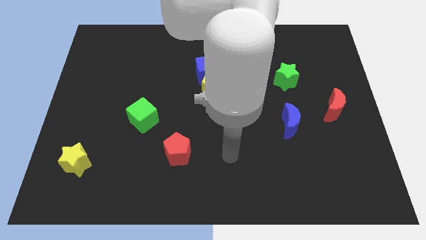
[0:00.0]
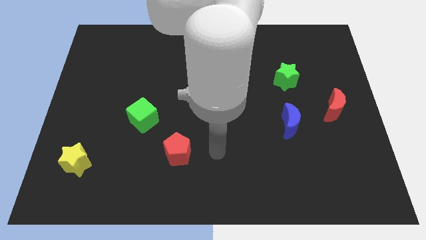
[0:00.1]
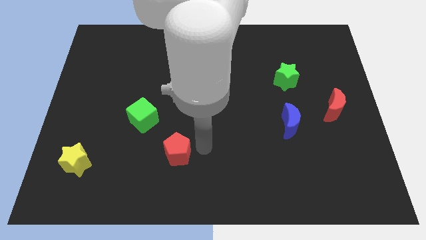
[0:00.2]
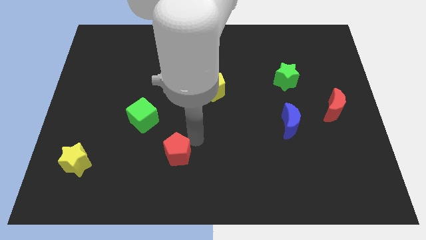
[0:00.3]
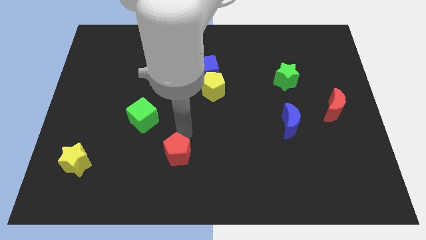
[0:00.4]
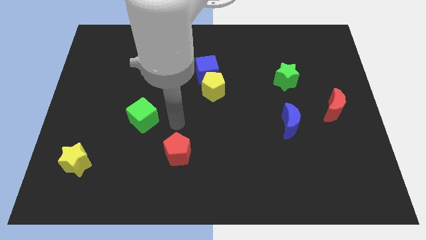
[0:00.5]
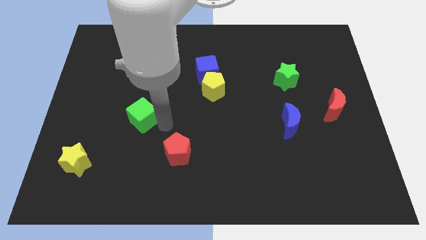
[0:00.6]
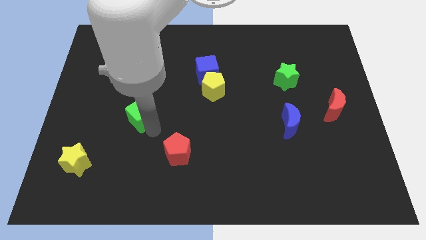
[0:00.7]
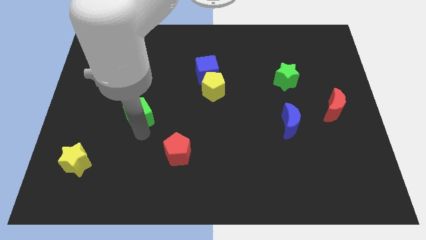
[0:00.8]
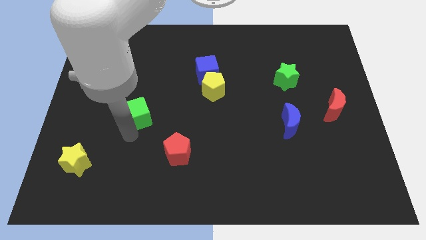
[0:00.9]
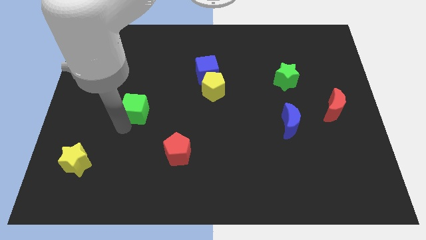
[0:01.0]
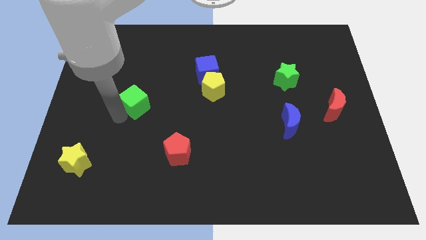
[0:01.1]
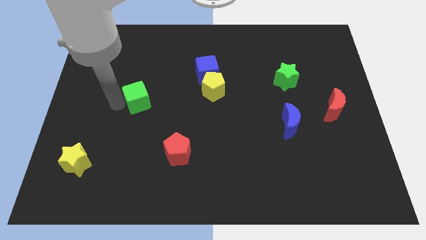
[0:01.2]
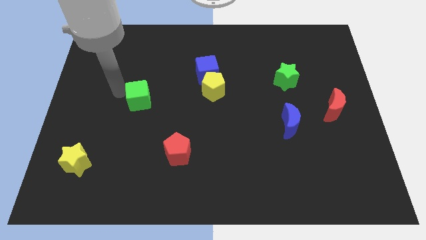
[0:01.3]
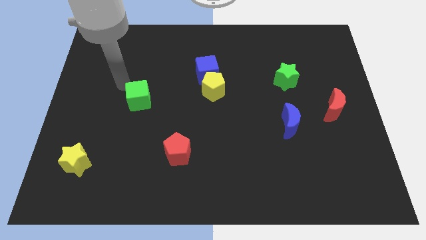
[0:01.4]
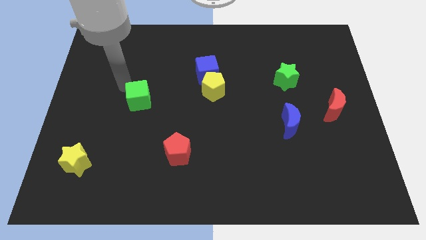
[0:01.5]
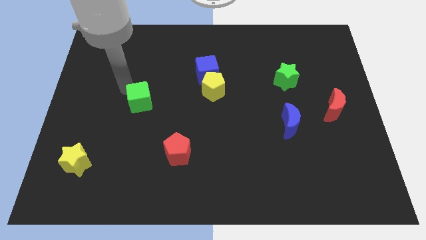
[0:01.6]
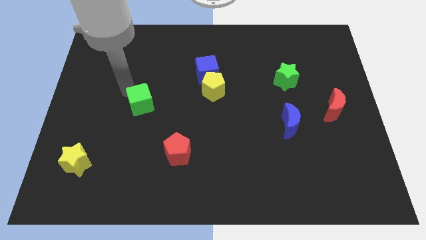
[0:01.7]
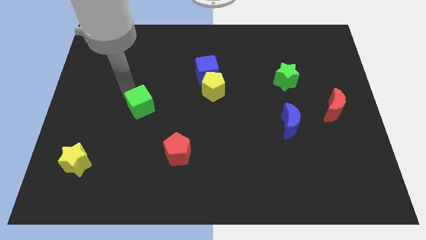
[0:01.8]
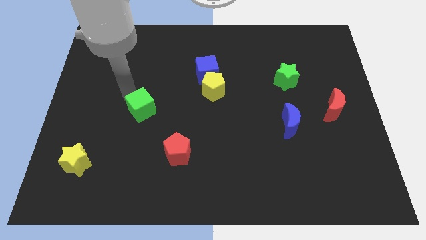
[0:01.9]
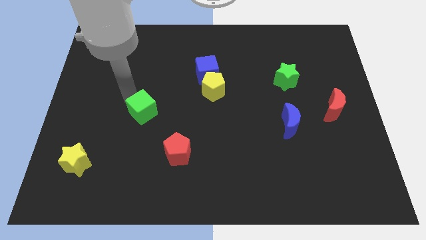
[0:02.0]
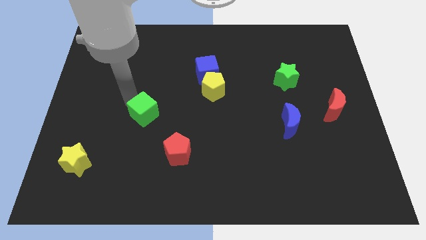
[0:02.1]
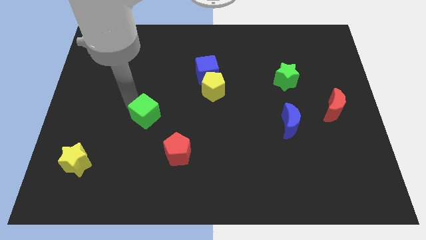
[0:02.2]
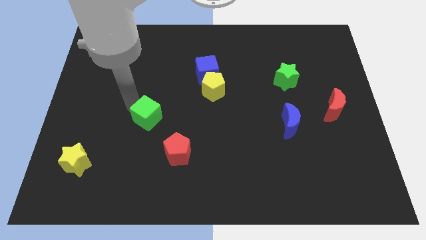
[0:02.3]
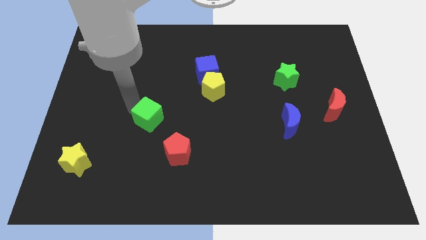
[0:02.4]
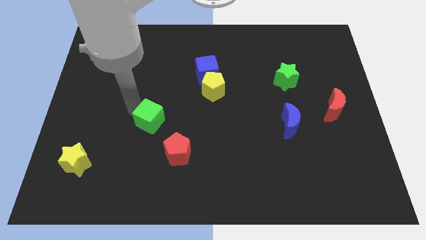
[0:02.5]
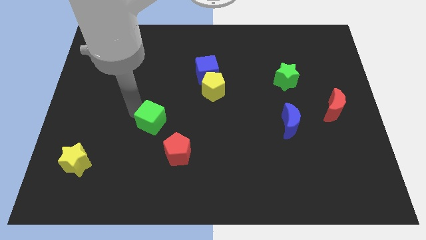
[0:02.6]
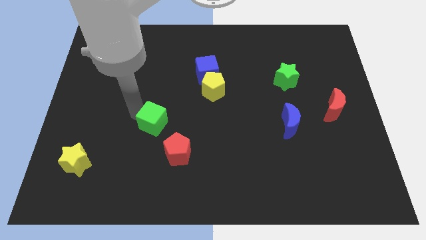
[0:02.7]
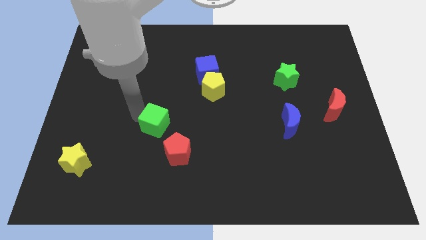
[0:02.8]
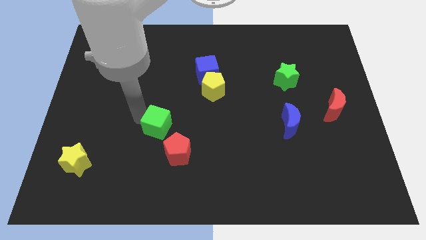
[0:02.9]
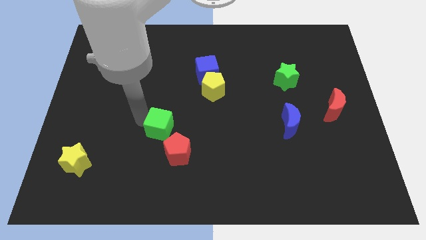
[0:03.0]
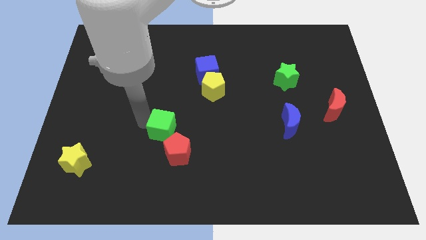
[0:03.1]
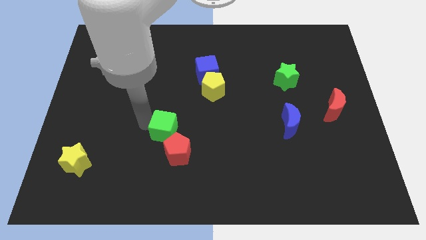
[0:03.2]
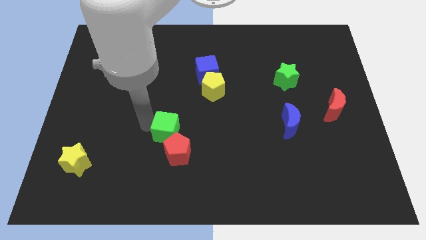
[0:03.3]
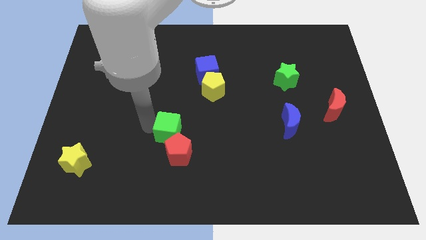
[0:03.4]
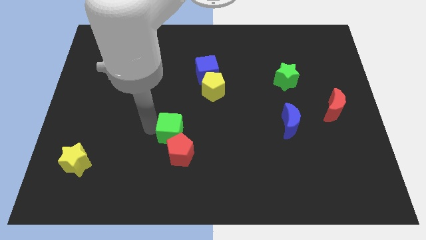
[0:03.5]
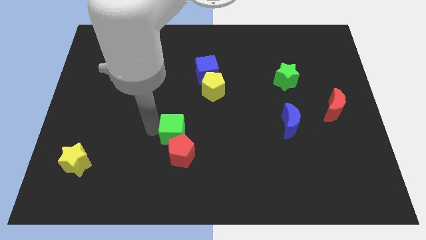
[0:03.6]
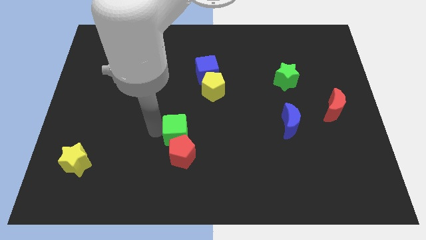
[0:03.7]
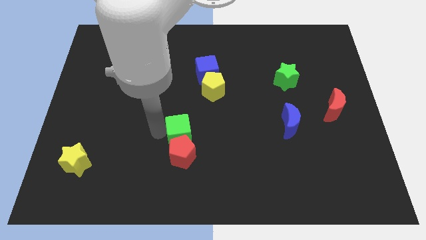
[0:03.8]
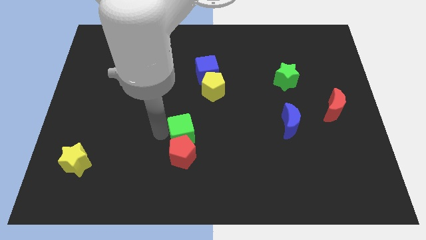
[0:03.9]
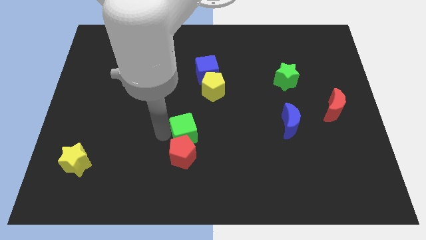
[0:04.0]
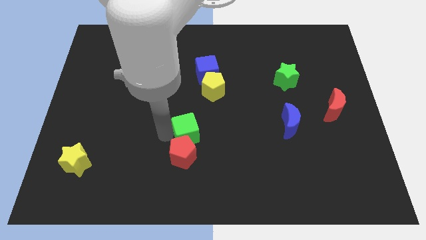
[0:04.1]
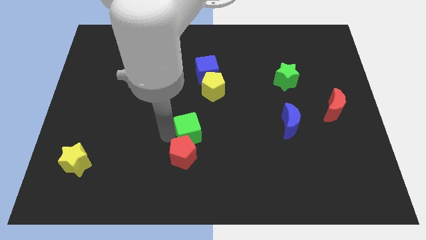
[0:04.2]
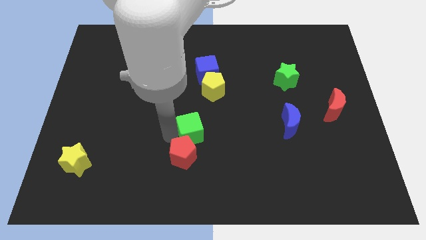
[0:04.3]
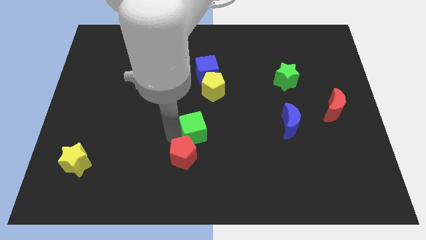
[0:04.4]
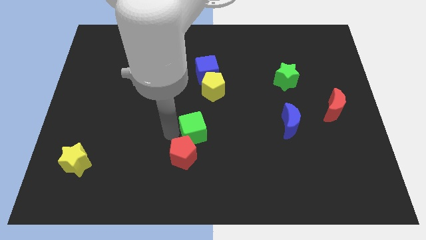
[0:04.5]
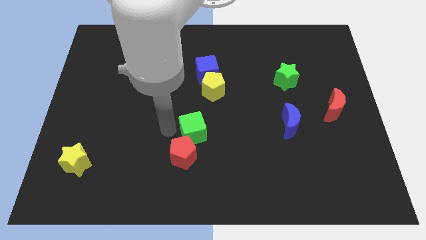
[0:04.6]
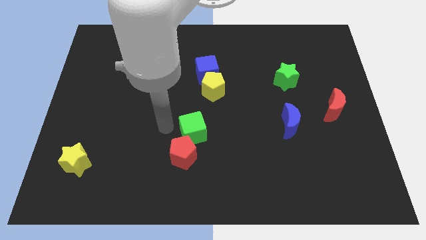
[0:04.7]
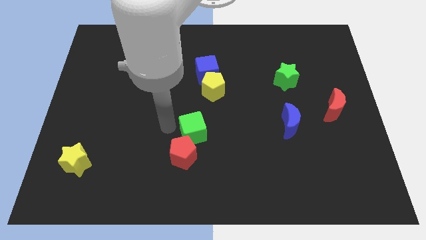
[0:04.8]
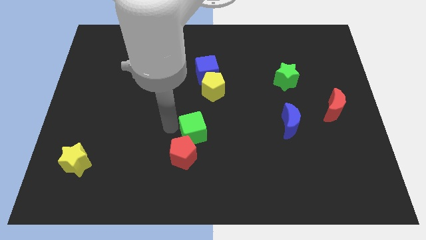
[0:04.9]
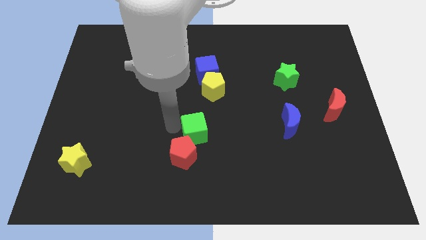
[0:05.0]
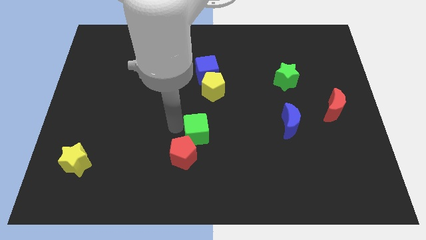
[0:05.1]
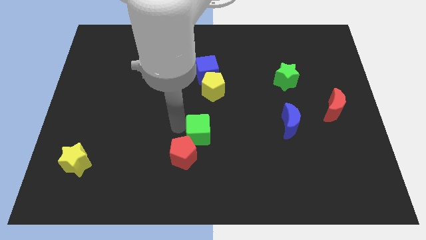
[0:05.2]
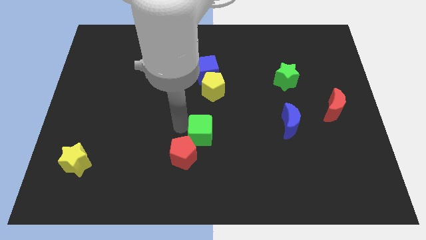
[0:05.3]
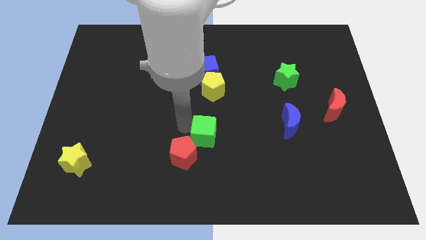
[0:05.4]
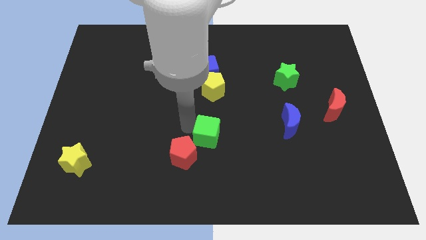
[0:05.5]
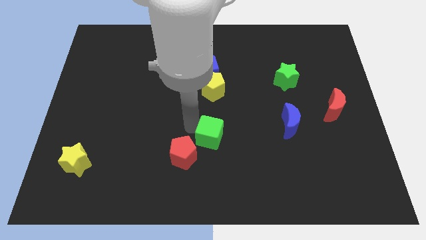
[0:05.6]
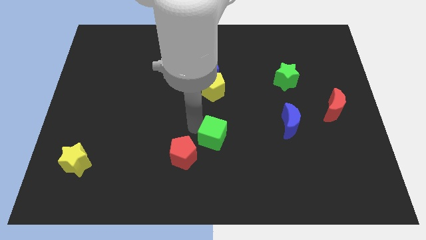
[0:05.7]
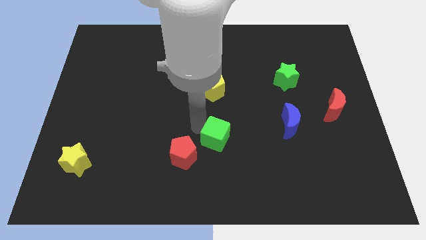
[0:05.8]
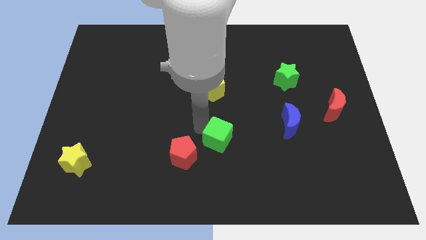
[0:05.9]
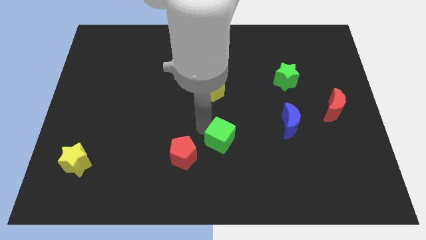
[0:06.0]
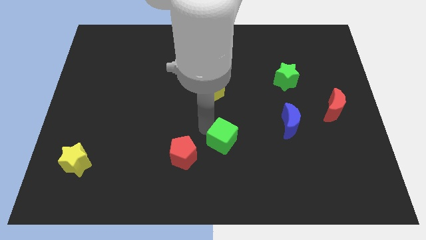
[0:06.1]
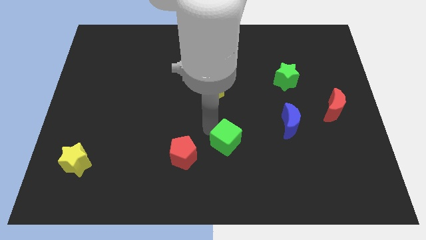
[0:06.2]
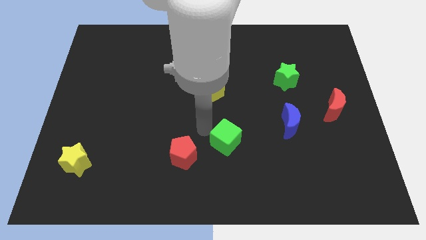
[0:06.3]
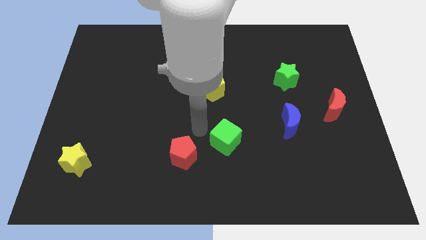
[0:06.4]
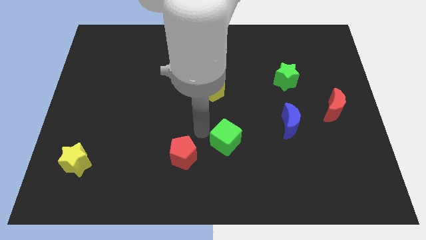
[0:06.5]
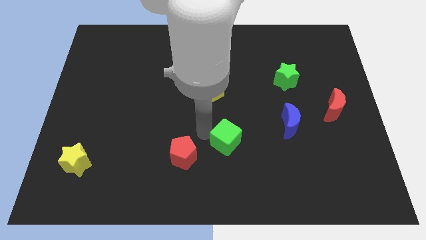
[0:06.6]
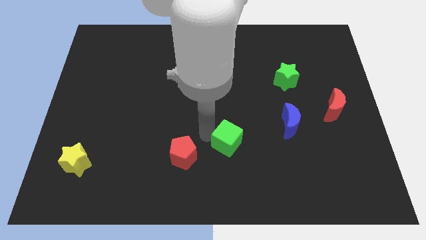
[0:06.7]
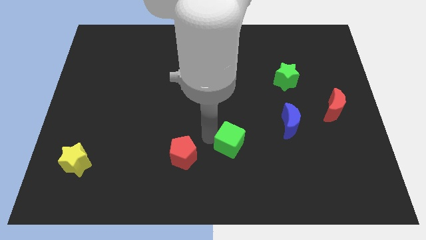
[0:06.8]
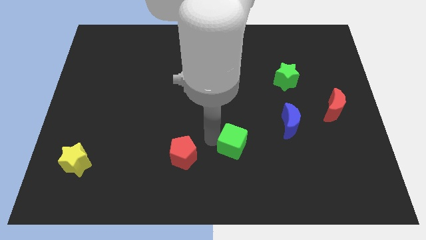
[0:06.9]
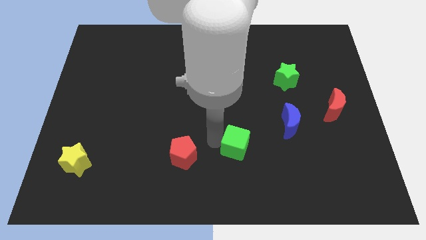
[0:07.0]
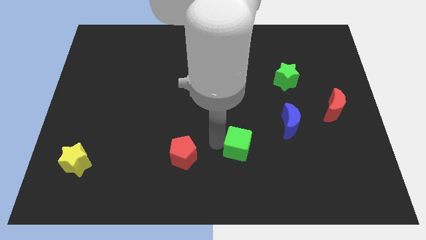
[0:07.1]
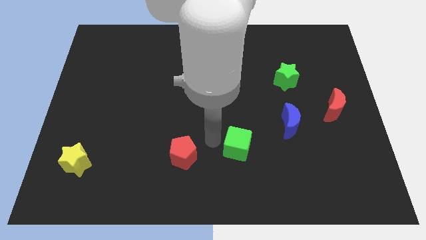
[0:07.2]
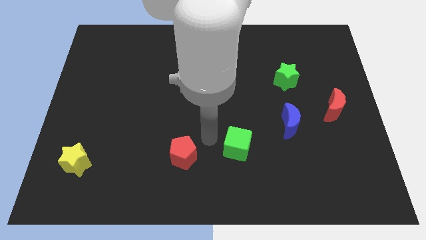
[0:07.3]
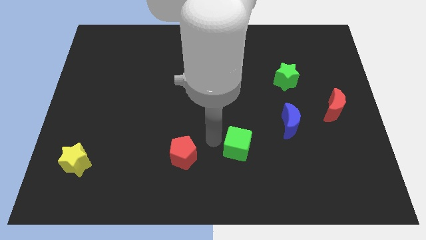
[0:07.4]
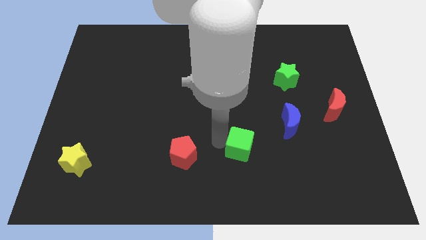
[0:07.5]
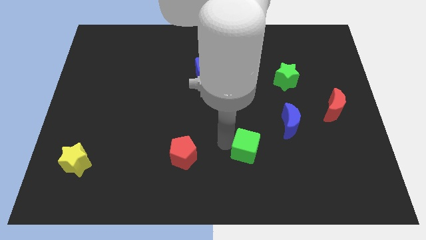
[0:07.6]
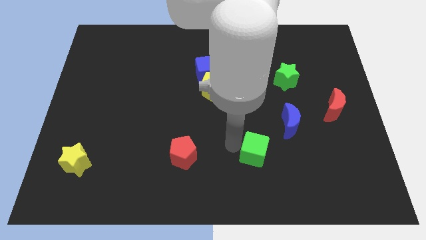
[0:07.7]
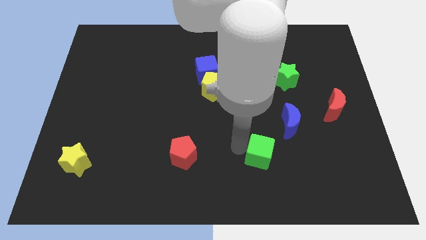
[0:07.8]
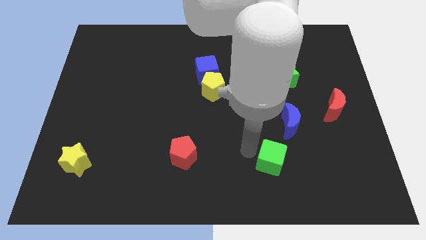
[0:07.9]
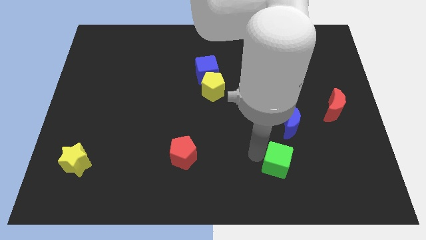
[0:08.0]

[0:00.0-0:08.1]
push the green cube below the blue moon
